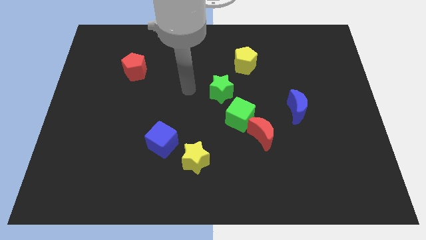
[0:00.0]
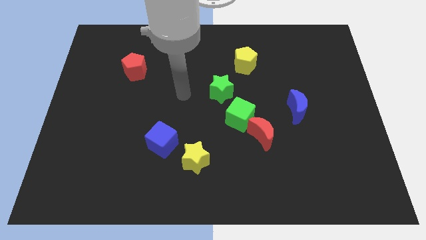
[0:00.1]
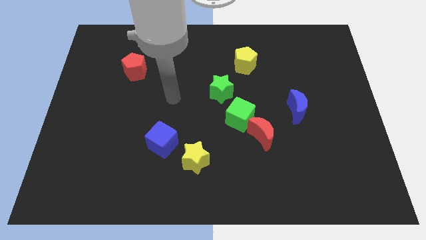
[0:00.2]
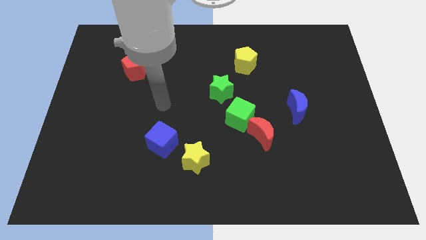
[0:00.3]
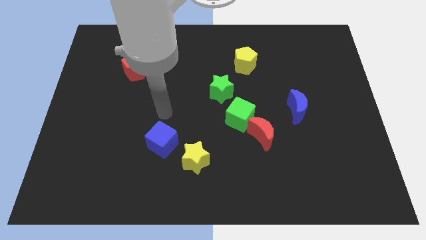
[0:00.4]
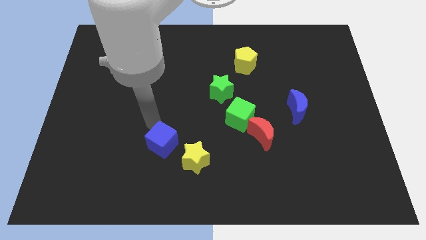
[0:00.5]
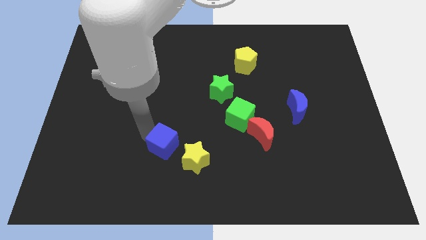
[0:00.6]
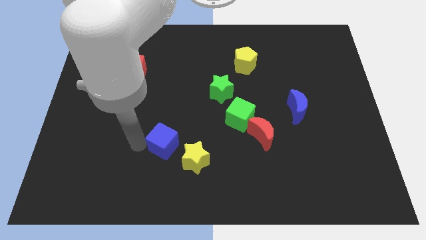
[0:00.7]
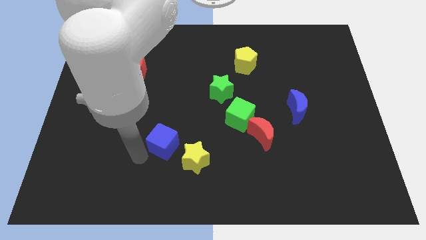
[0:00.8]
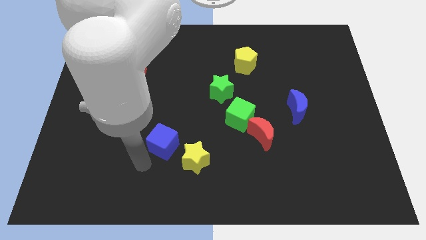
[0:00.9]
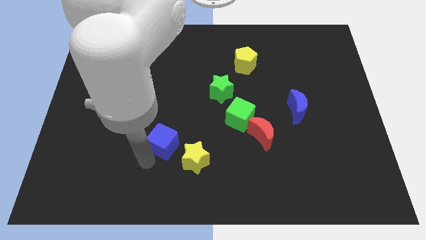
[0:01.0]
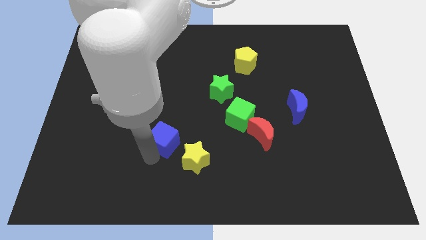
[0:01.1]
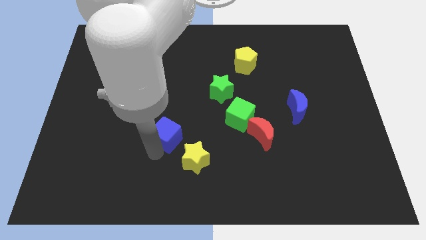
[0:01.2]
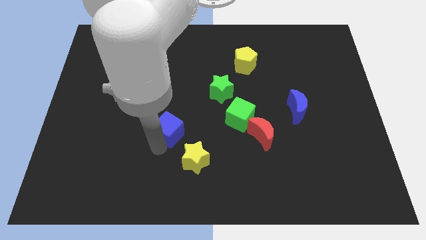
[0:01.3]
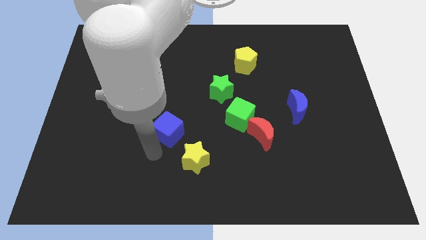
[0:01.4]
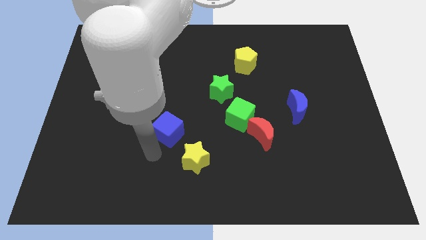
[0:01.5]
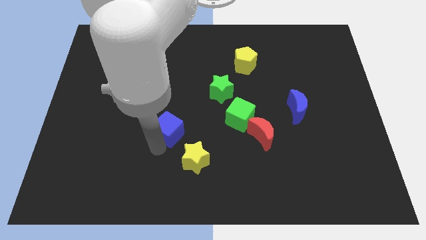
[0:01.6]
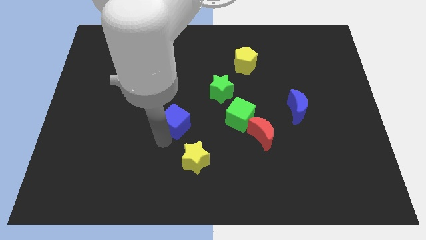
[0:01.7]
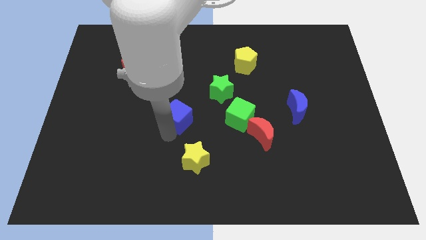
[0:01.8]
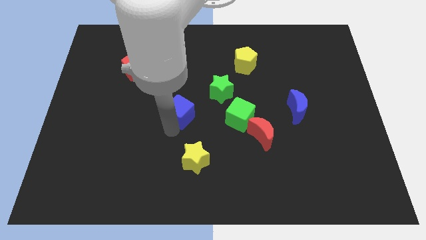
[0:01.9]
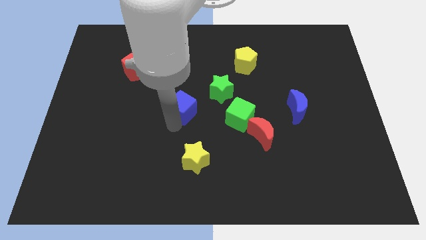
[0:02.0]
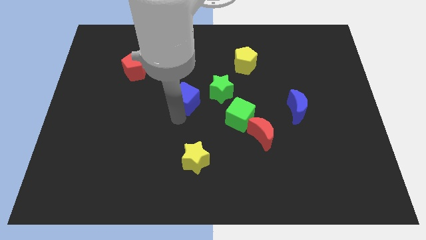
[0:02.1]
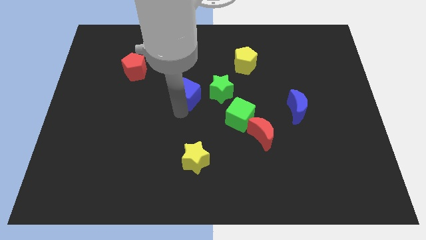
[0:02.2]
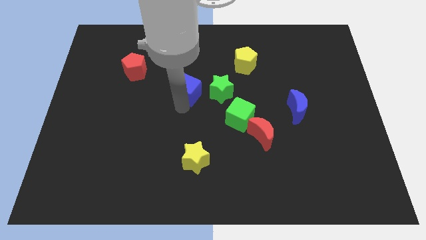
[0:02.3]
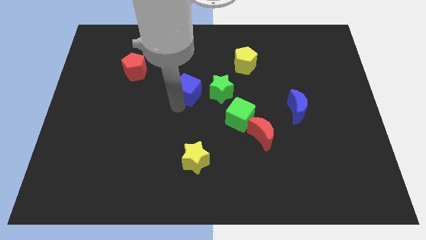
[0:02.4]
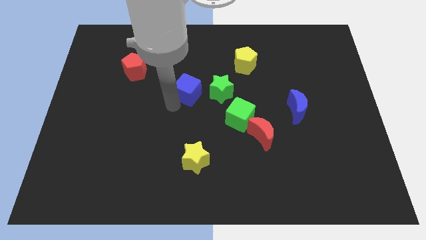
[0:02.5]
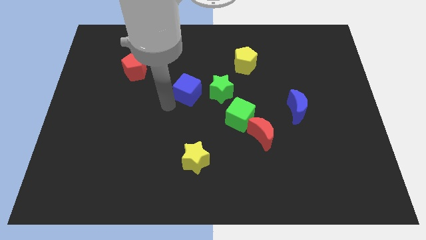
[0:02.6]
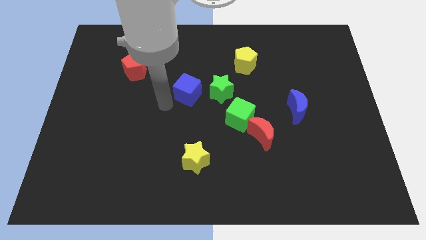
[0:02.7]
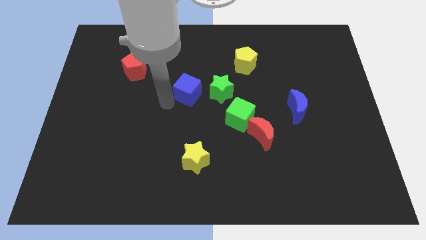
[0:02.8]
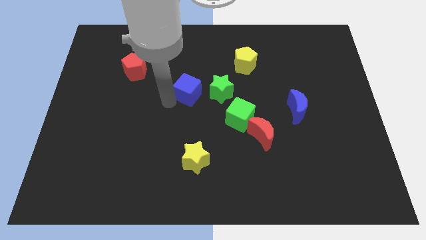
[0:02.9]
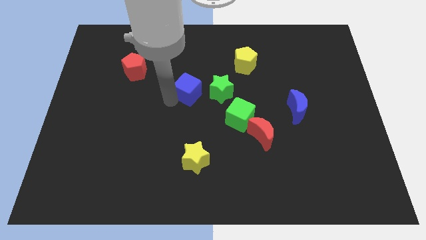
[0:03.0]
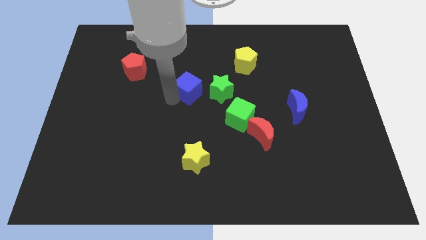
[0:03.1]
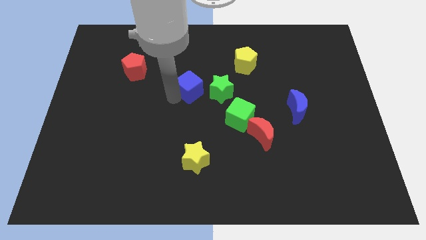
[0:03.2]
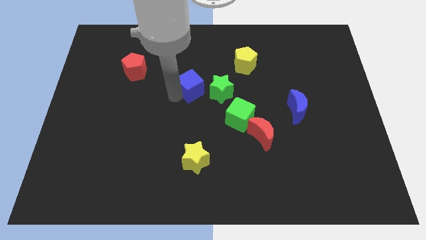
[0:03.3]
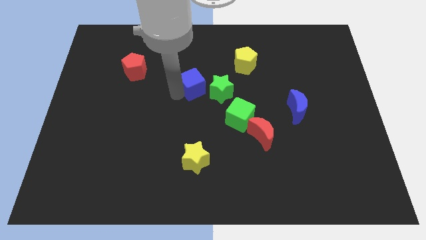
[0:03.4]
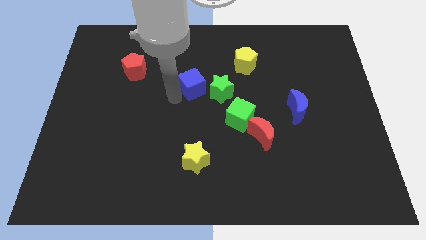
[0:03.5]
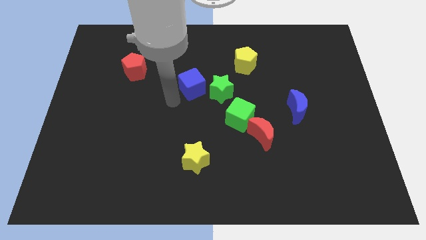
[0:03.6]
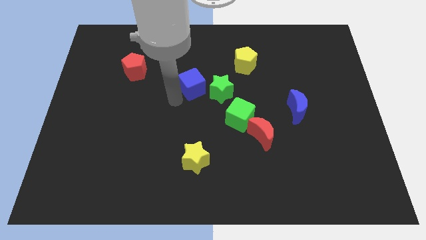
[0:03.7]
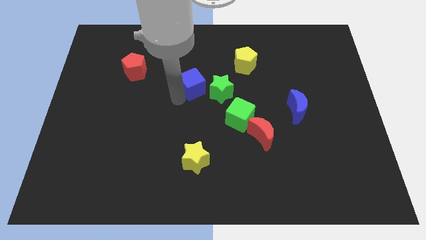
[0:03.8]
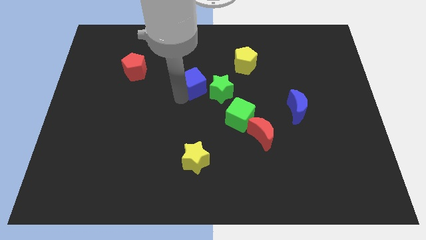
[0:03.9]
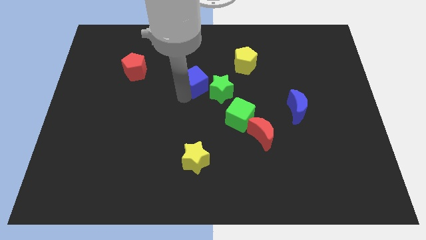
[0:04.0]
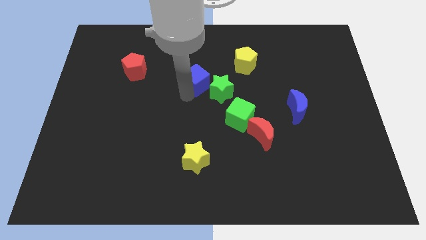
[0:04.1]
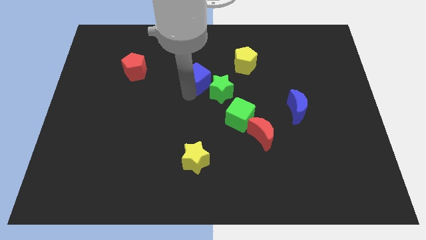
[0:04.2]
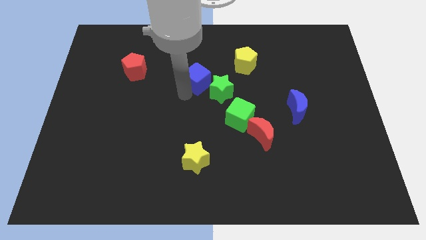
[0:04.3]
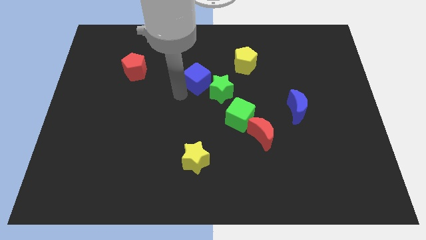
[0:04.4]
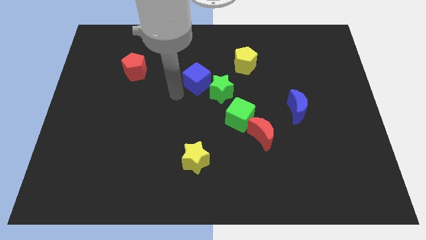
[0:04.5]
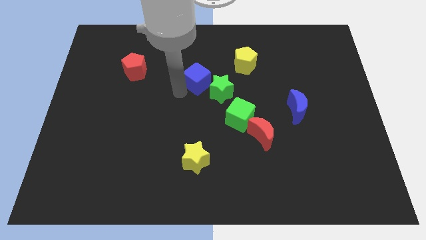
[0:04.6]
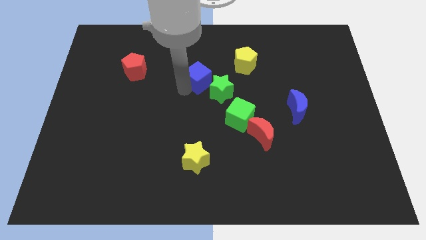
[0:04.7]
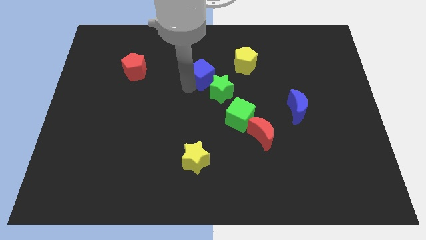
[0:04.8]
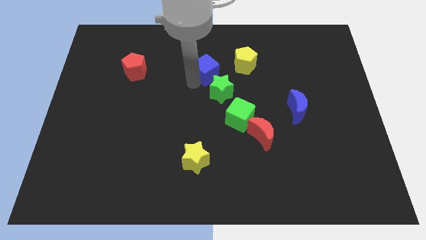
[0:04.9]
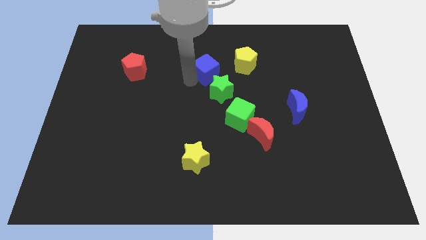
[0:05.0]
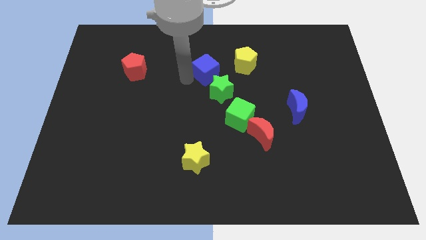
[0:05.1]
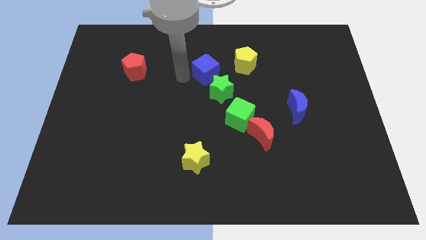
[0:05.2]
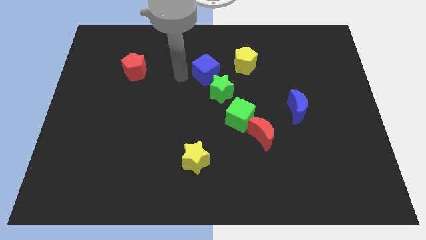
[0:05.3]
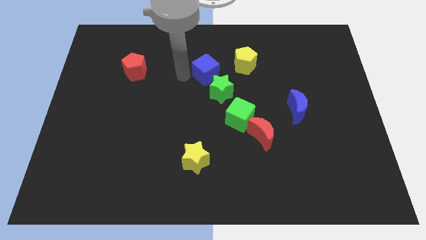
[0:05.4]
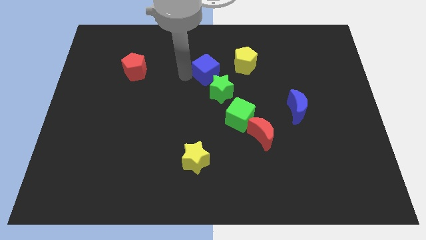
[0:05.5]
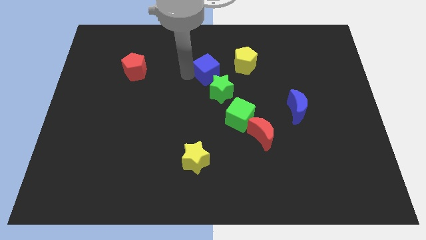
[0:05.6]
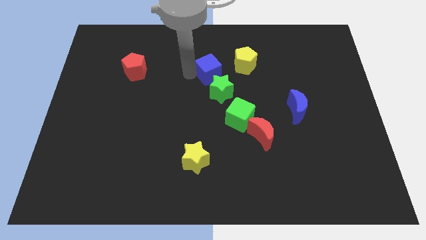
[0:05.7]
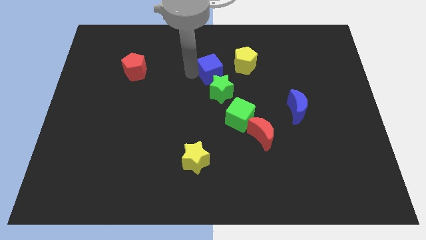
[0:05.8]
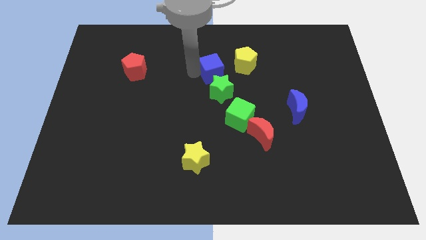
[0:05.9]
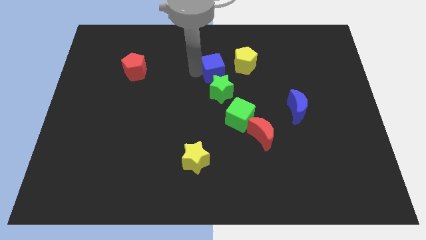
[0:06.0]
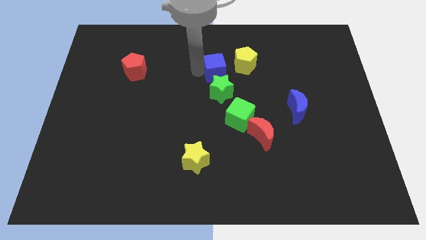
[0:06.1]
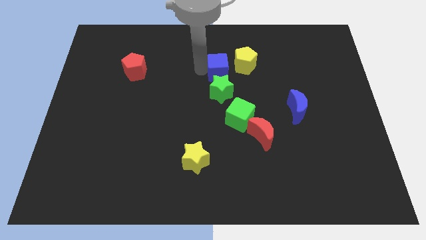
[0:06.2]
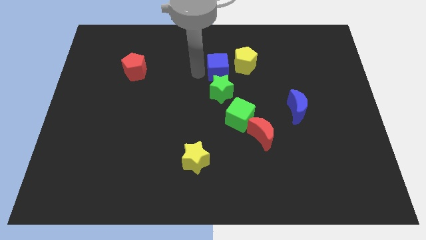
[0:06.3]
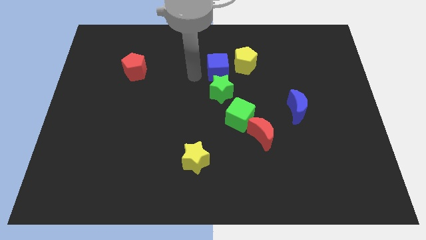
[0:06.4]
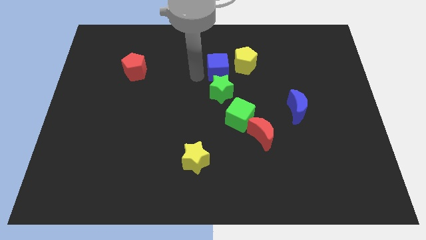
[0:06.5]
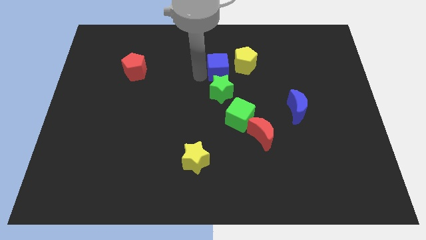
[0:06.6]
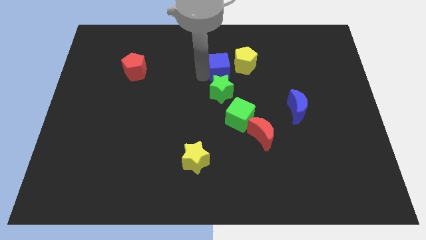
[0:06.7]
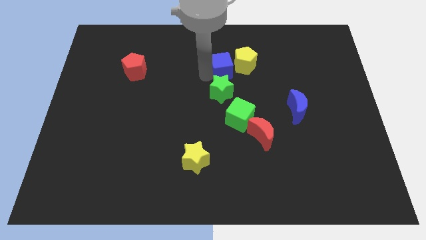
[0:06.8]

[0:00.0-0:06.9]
slide the blue cube towards the yellow pentagon
